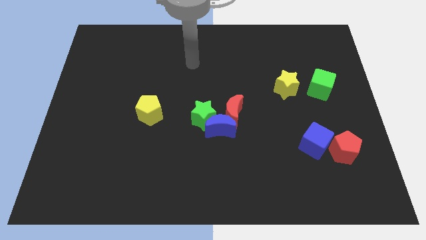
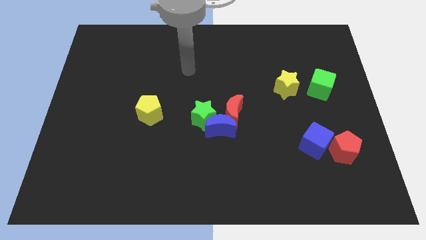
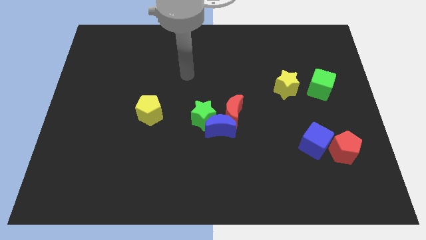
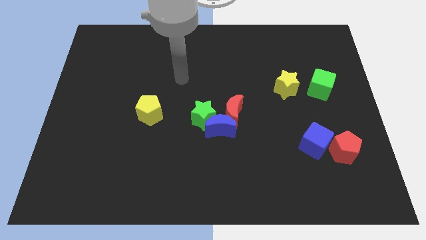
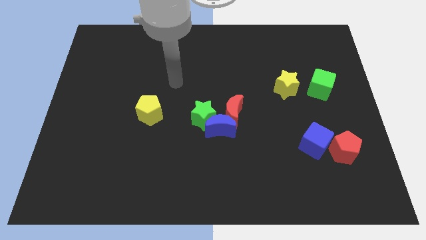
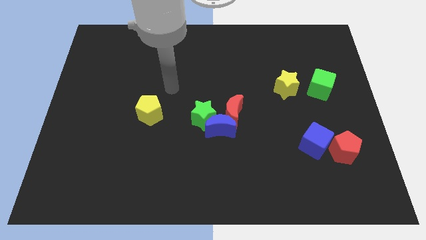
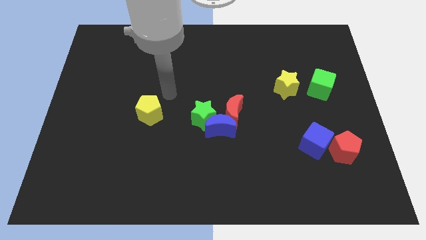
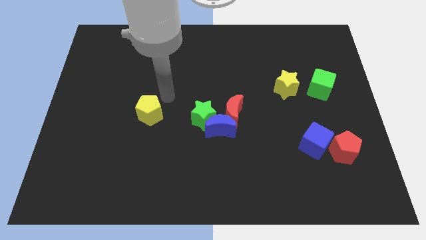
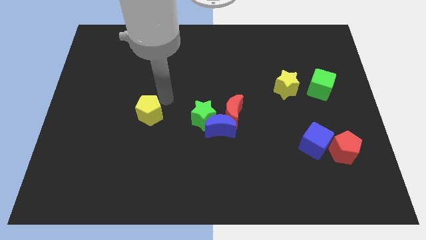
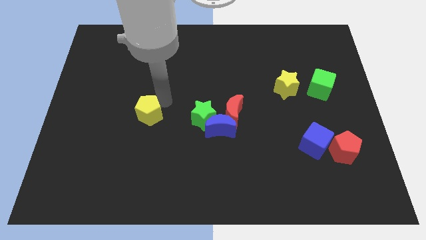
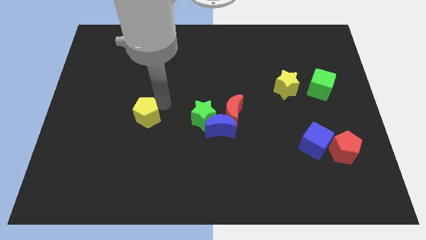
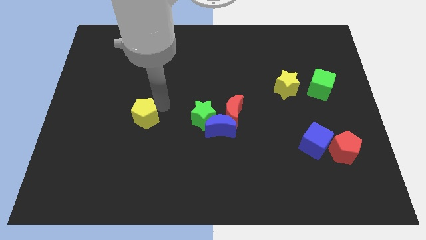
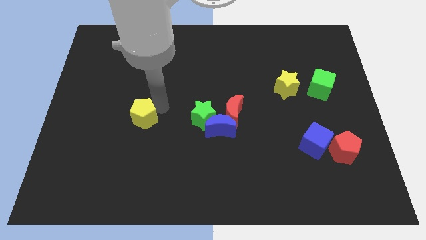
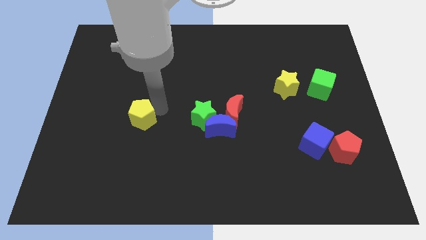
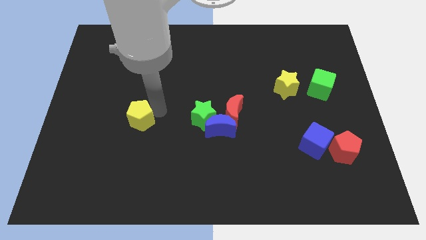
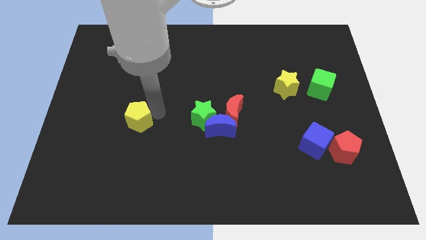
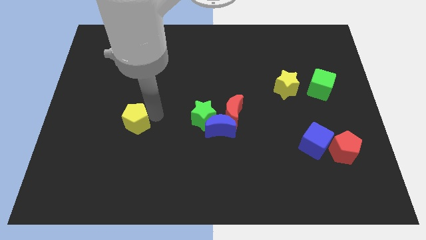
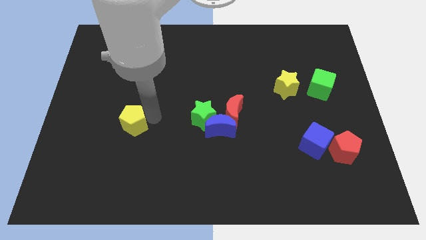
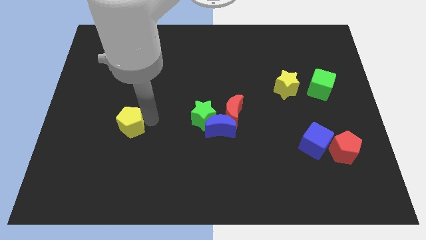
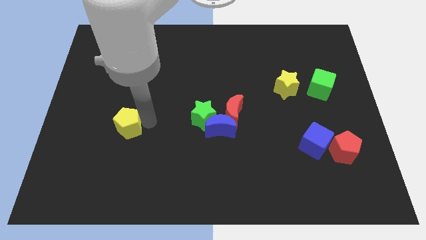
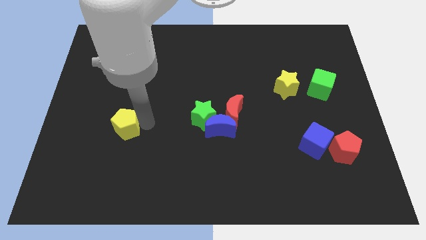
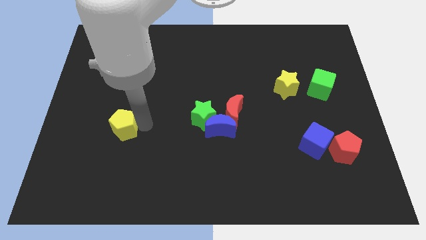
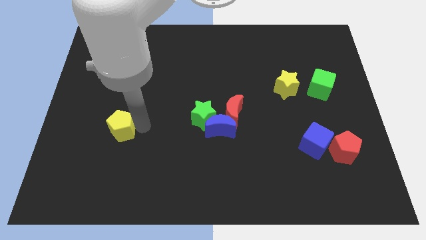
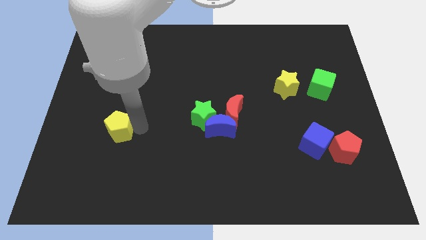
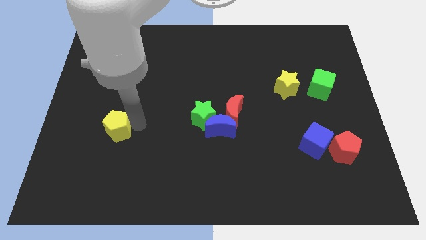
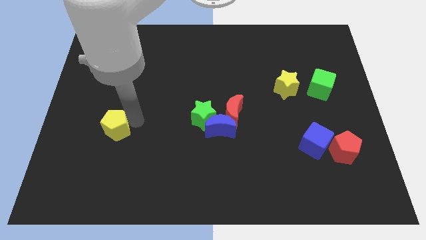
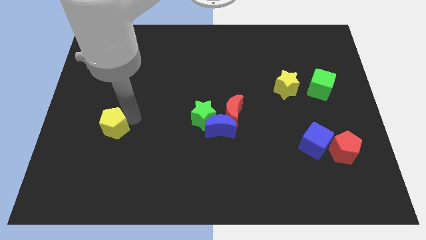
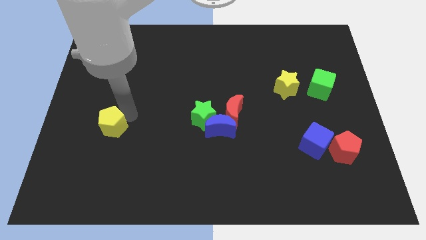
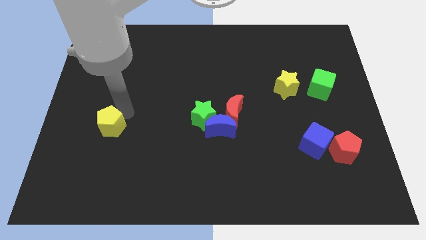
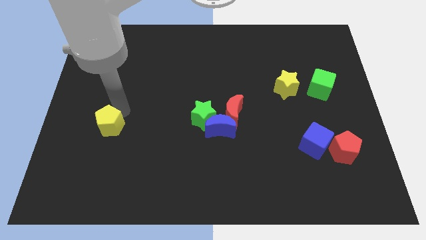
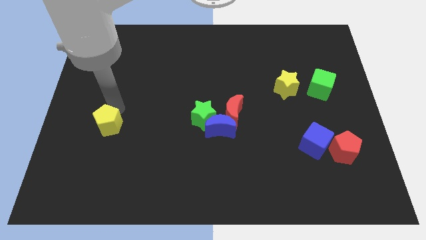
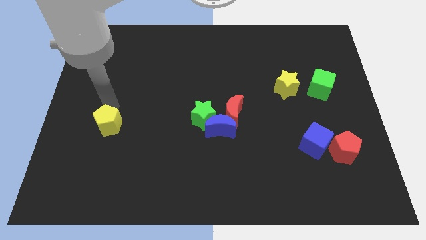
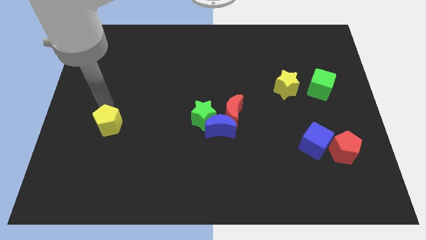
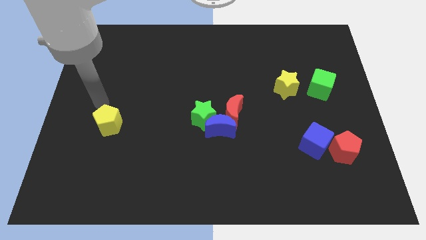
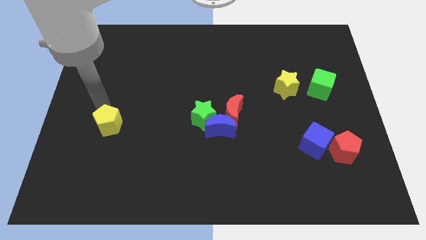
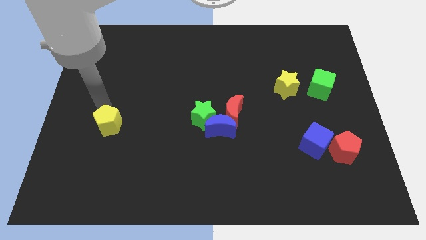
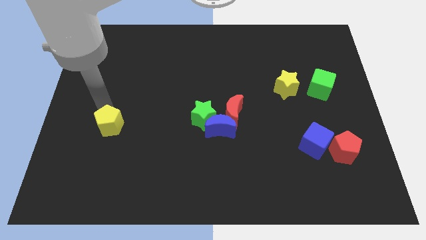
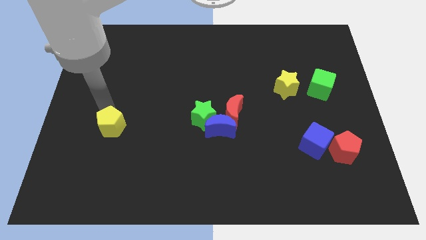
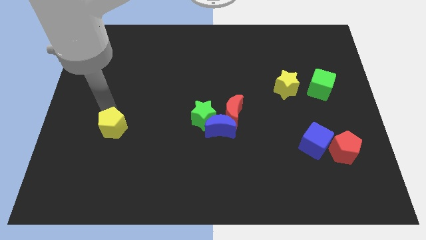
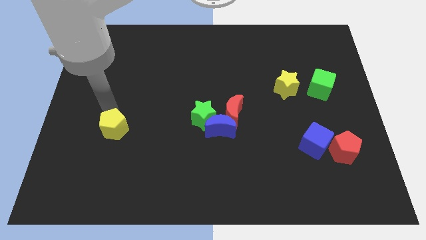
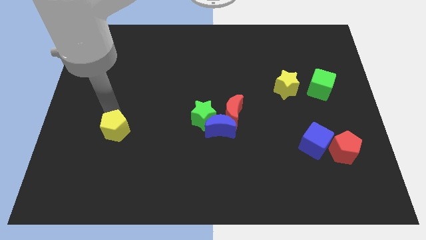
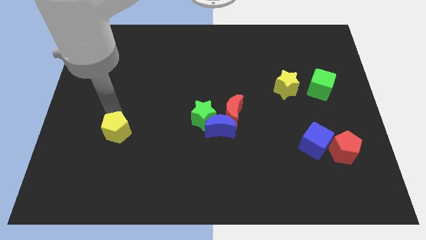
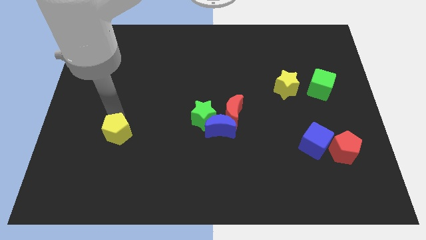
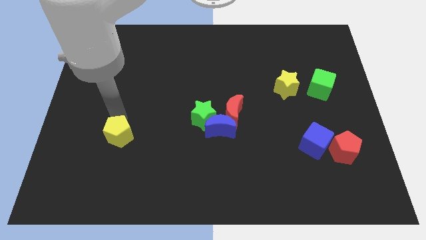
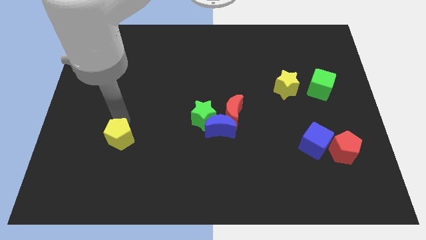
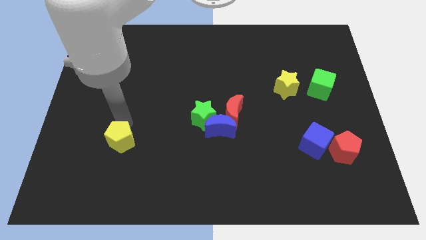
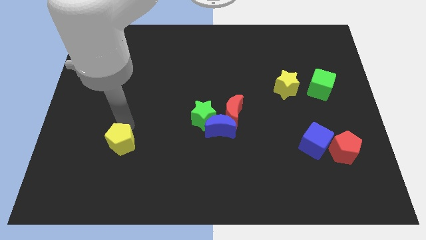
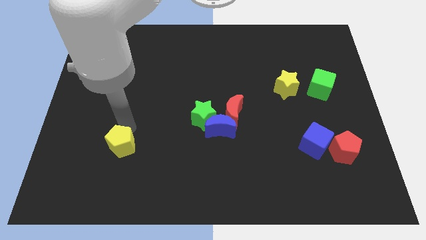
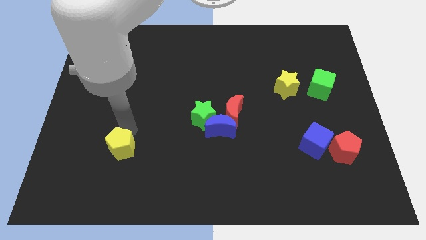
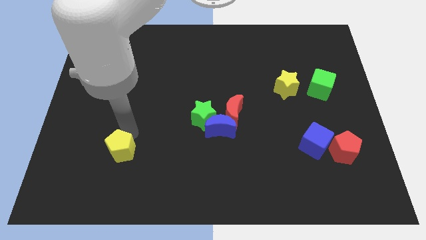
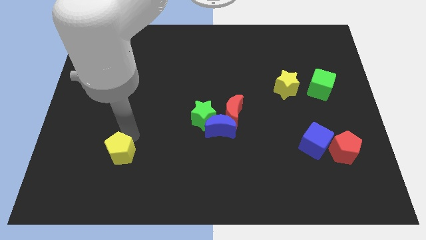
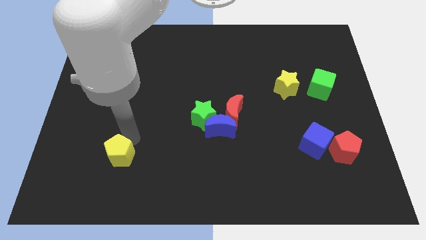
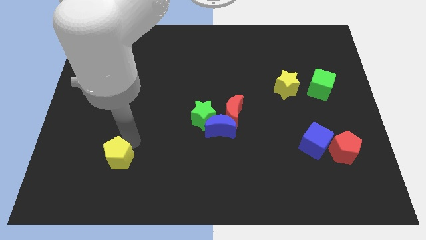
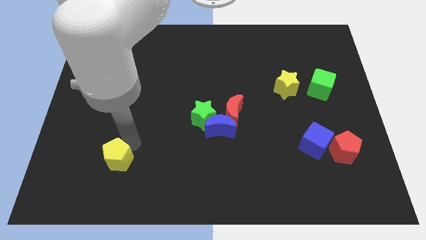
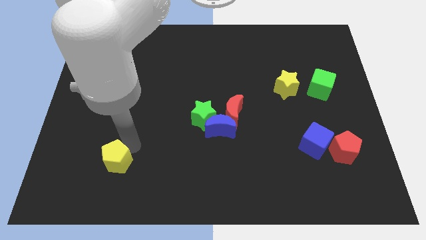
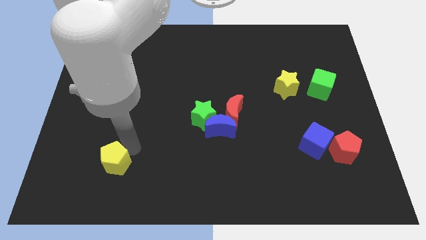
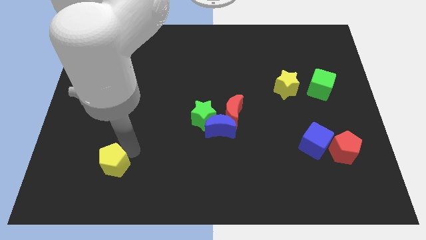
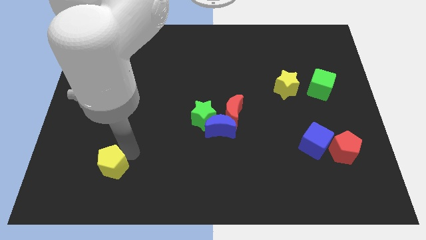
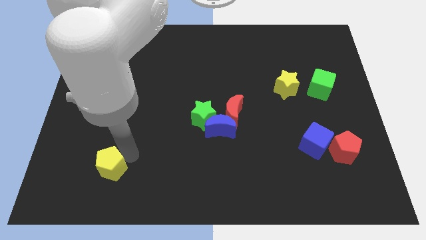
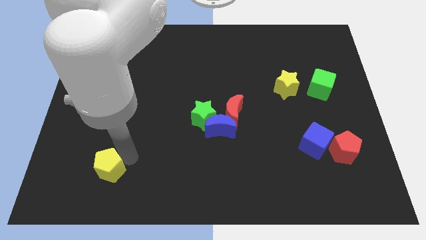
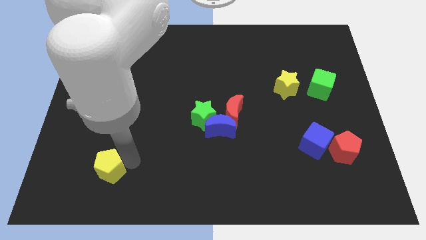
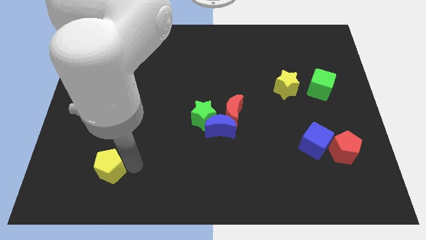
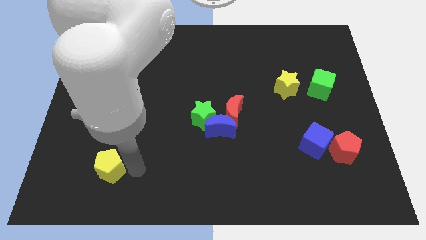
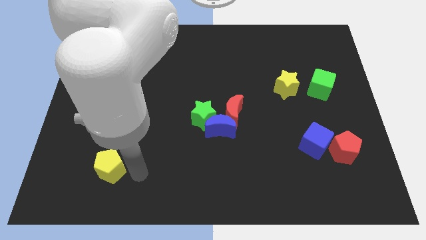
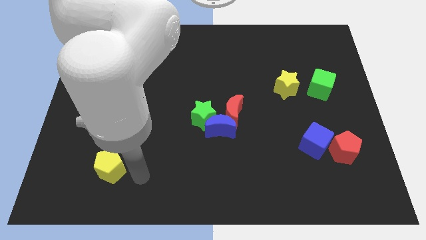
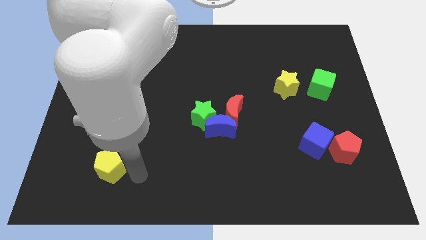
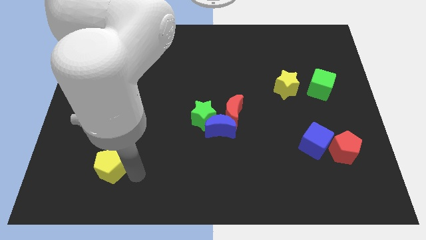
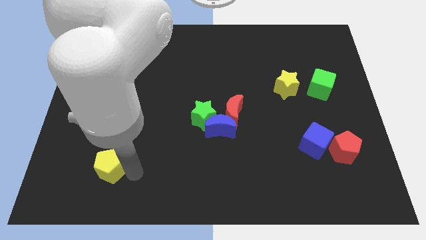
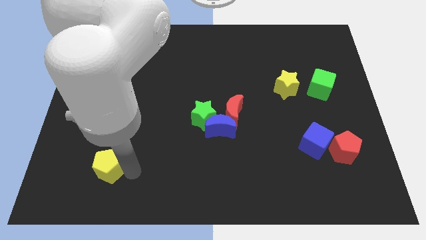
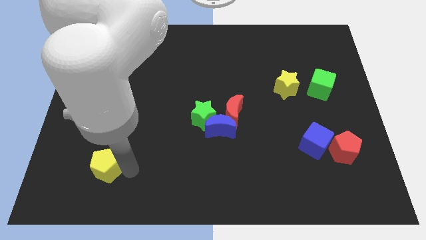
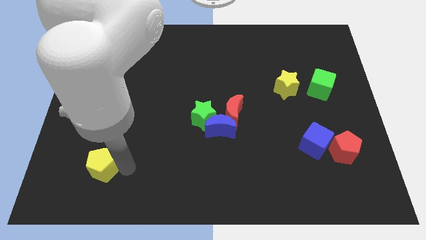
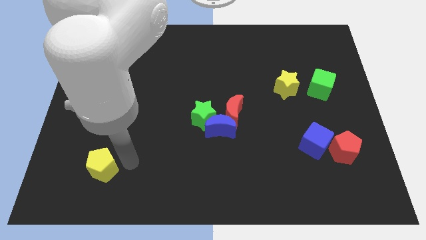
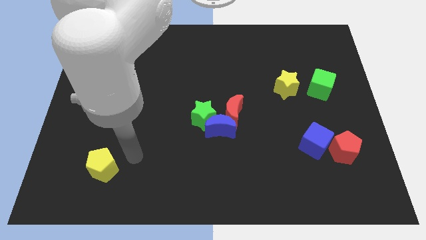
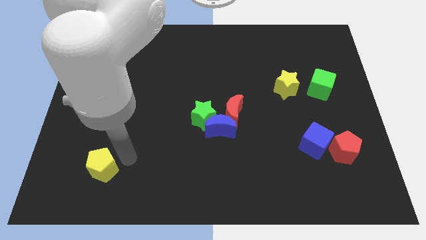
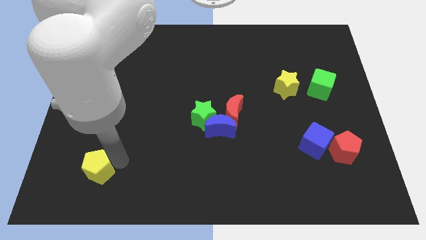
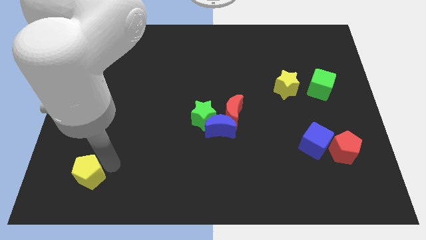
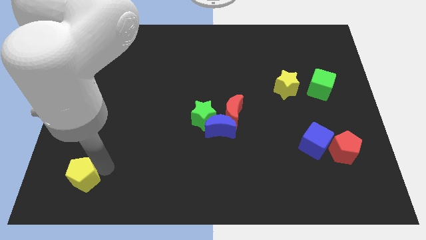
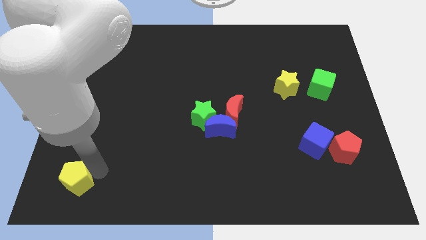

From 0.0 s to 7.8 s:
push the yellow pentagon to the bottom left corner

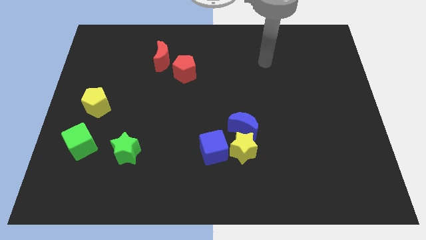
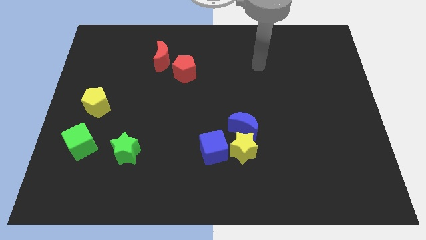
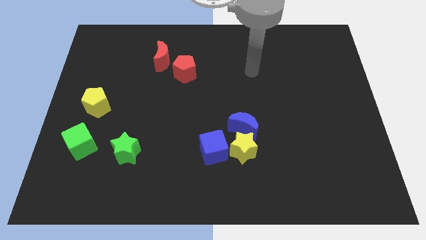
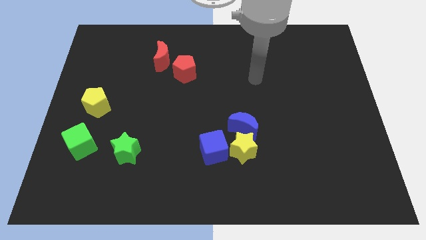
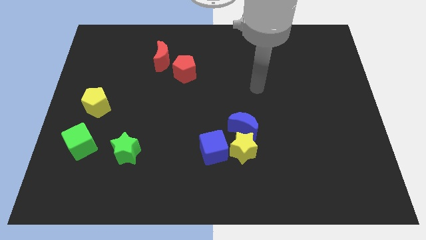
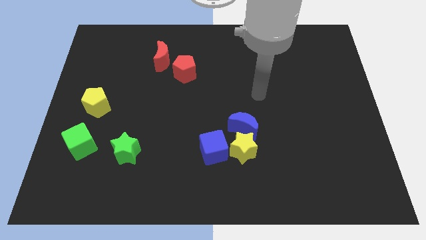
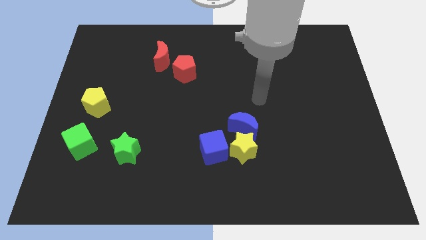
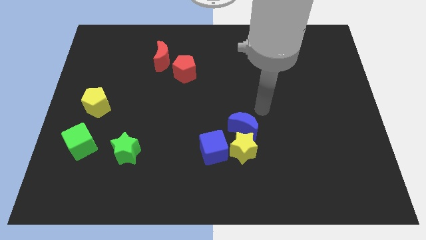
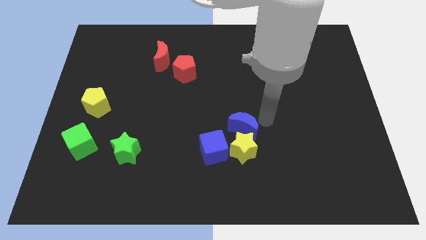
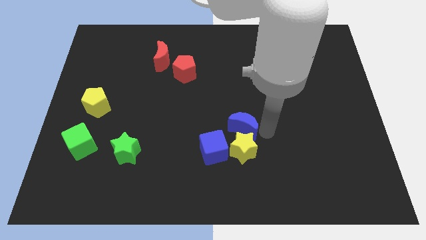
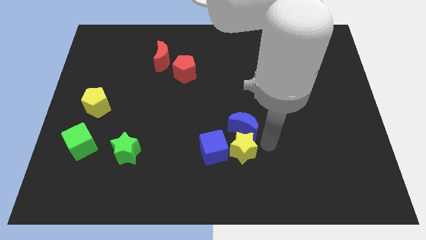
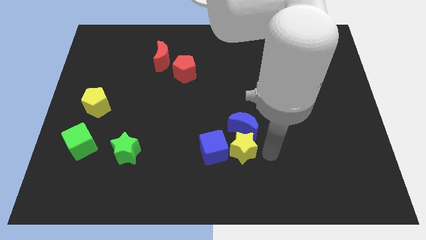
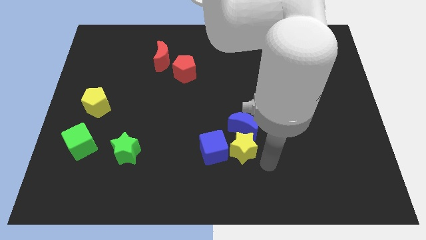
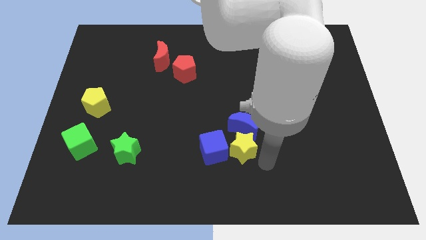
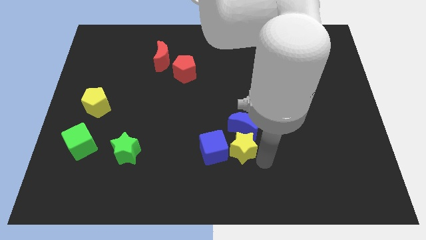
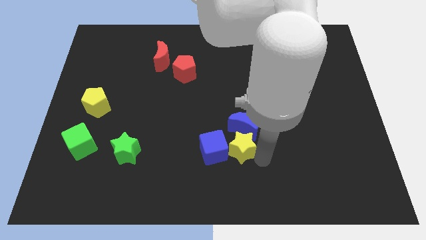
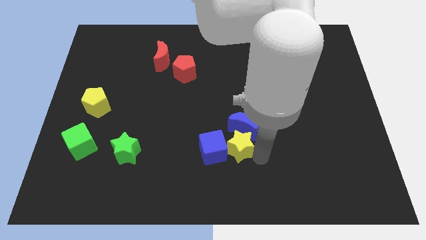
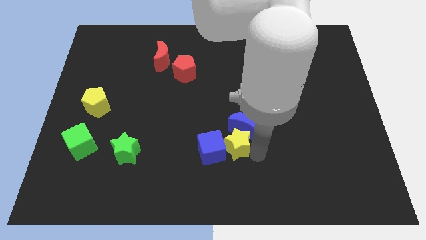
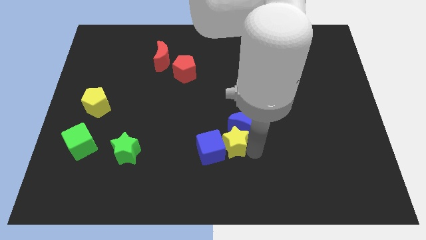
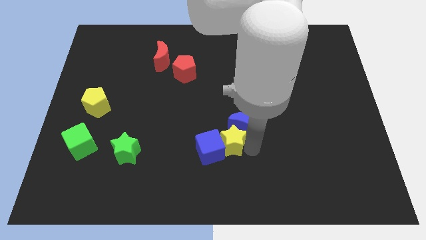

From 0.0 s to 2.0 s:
put the yellow star to the center
